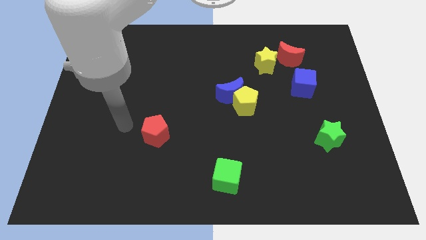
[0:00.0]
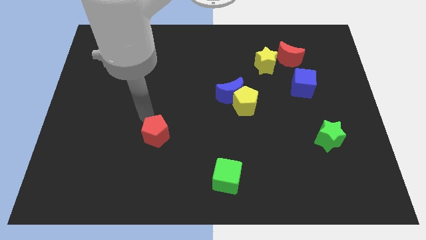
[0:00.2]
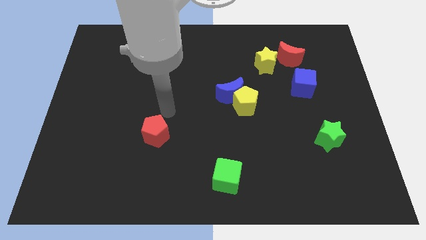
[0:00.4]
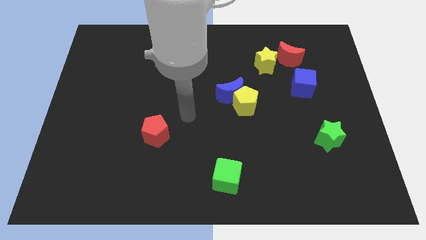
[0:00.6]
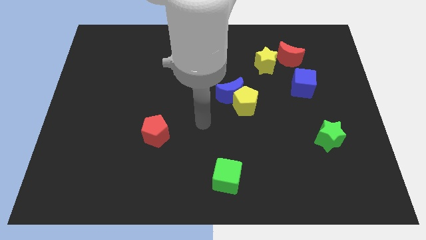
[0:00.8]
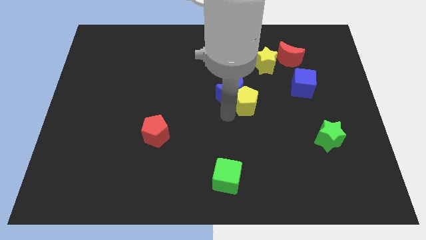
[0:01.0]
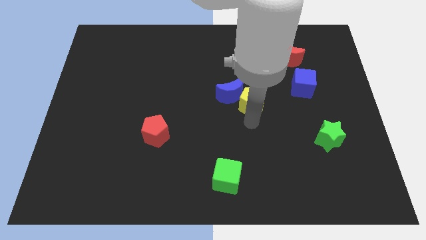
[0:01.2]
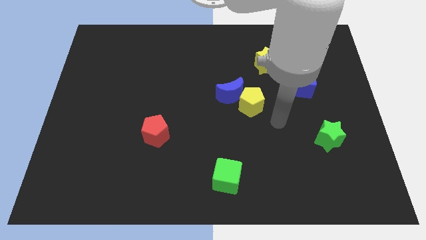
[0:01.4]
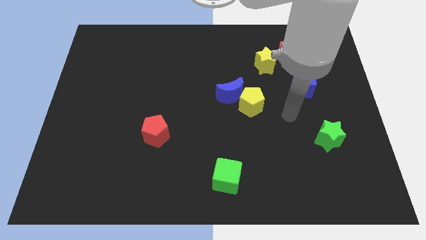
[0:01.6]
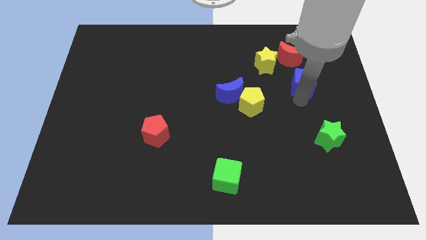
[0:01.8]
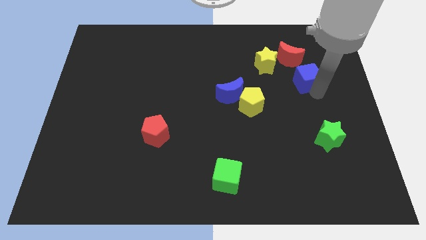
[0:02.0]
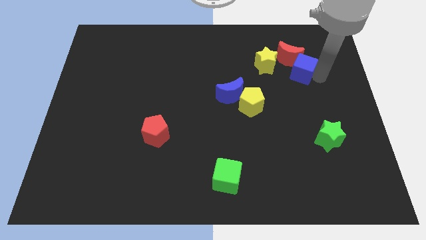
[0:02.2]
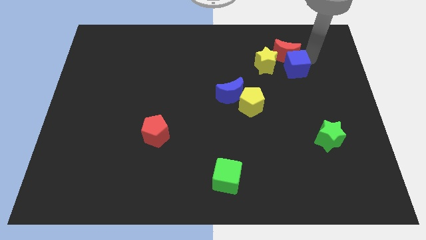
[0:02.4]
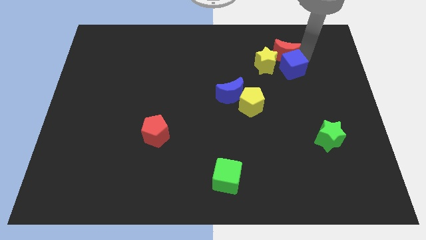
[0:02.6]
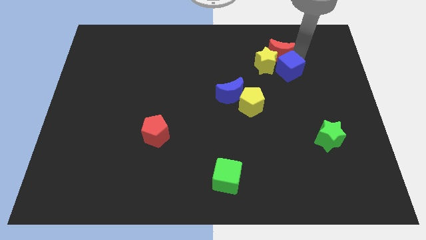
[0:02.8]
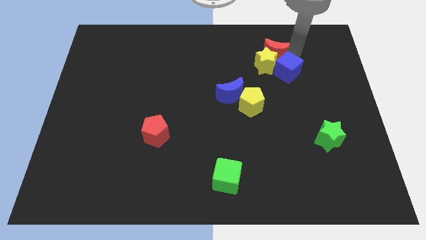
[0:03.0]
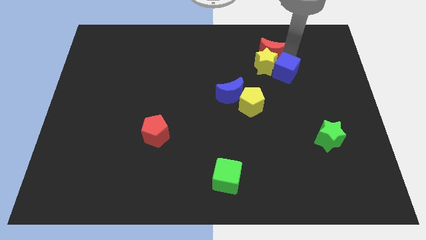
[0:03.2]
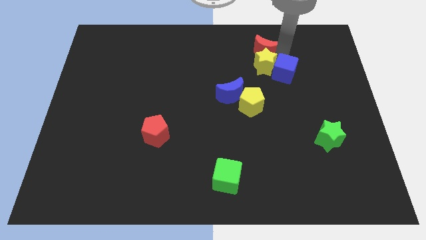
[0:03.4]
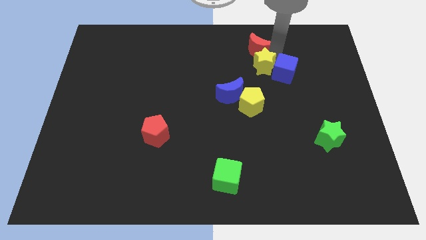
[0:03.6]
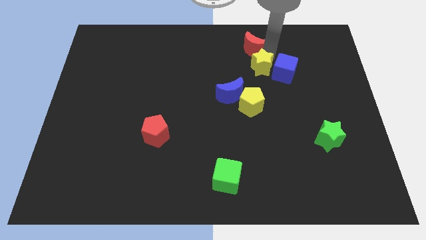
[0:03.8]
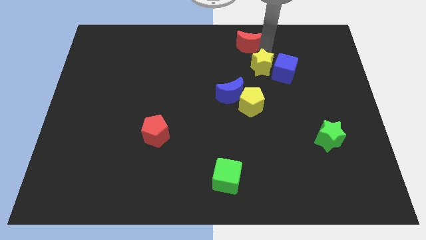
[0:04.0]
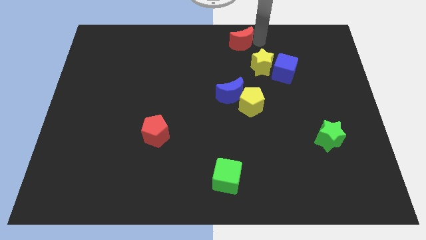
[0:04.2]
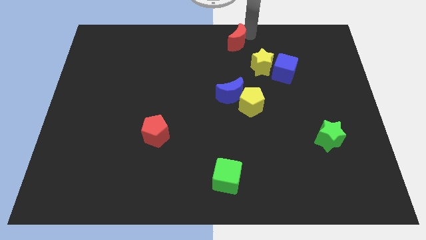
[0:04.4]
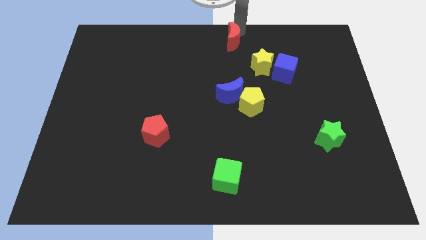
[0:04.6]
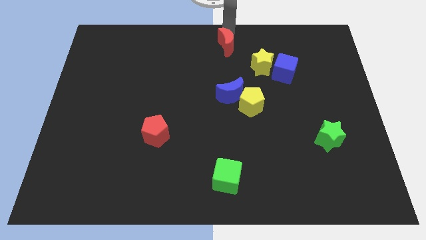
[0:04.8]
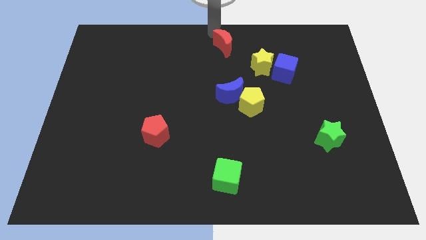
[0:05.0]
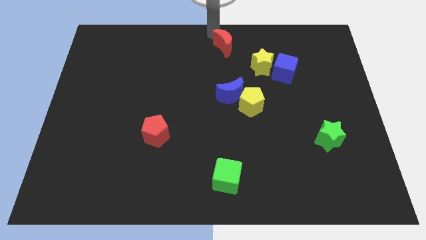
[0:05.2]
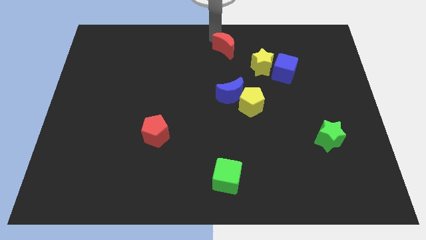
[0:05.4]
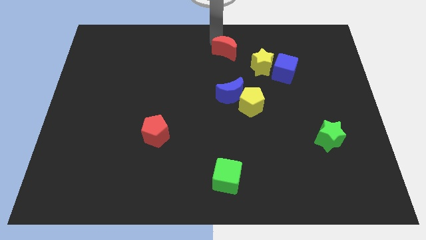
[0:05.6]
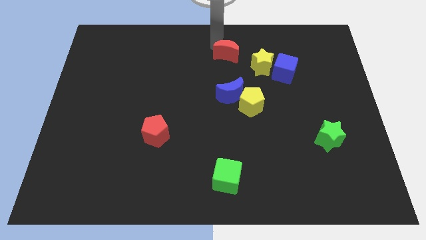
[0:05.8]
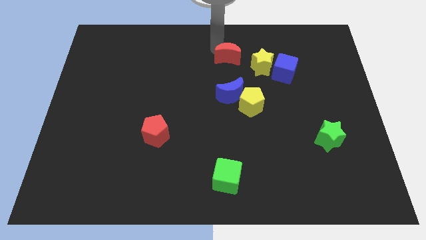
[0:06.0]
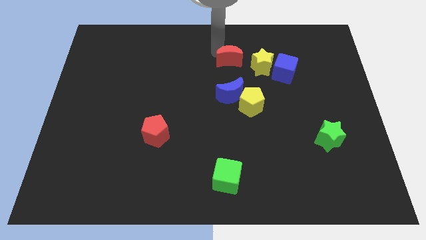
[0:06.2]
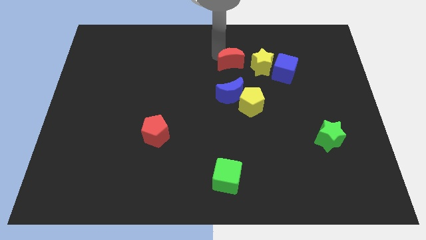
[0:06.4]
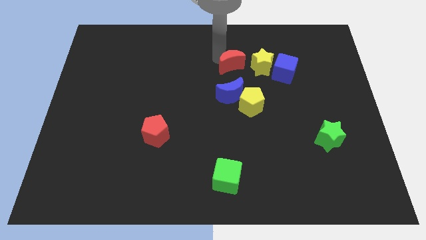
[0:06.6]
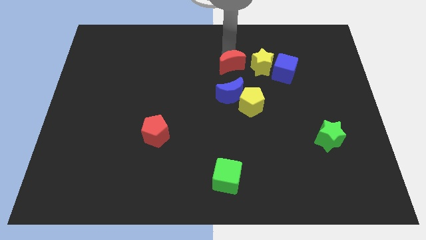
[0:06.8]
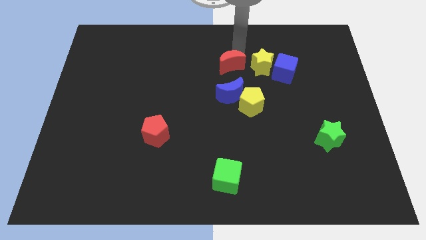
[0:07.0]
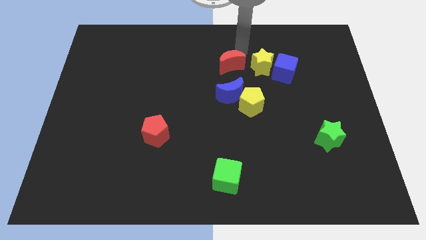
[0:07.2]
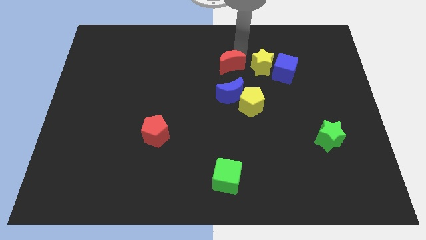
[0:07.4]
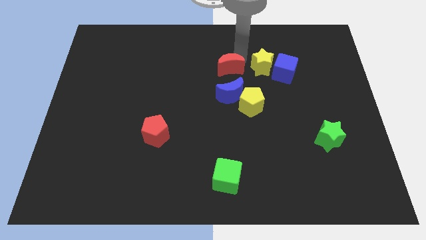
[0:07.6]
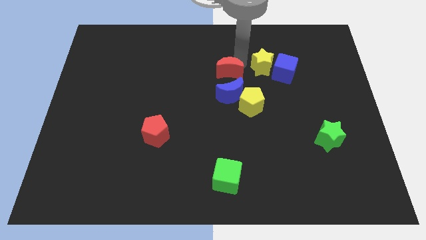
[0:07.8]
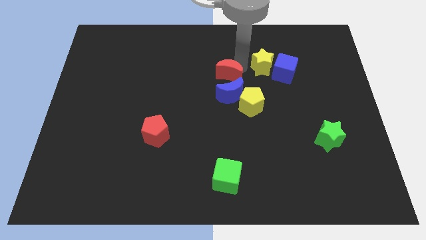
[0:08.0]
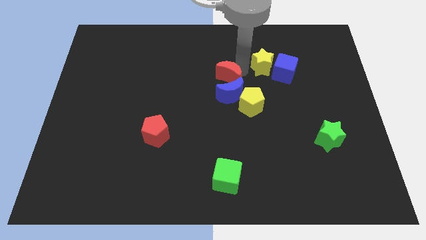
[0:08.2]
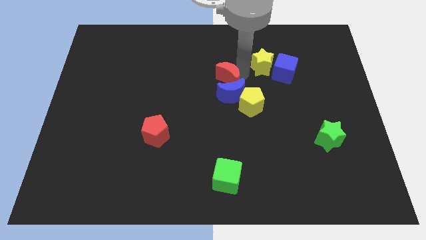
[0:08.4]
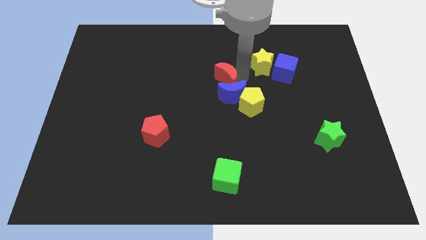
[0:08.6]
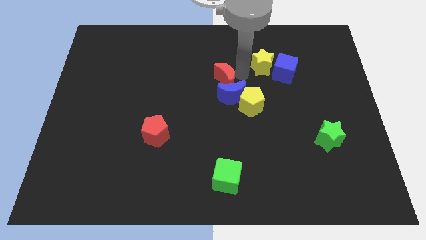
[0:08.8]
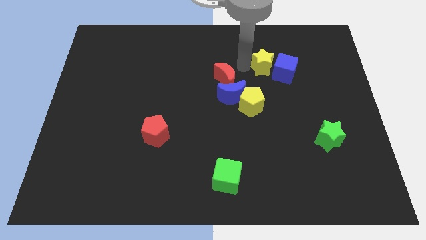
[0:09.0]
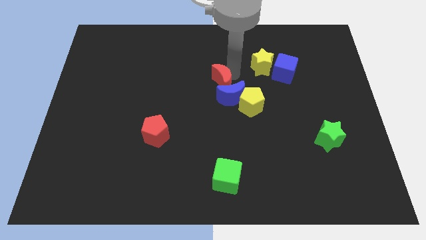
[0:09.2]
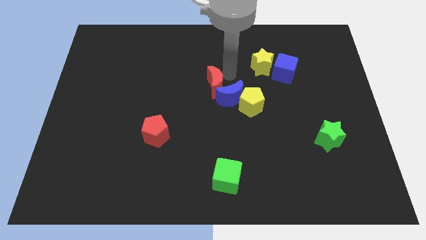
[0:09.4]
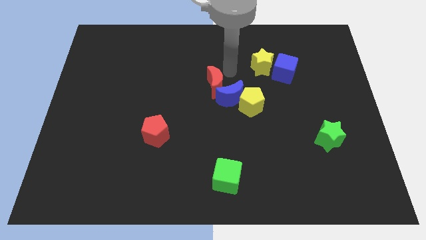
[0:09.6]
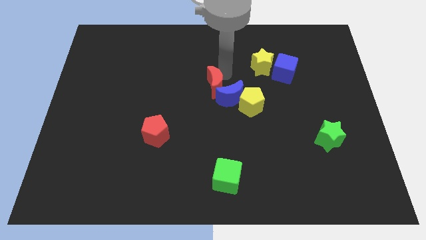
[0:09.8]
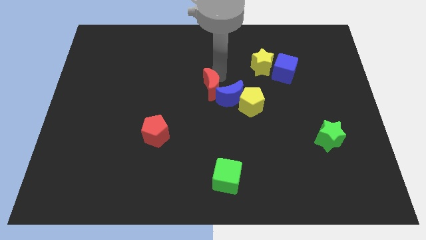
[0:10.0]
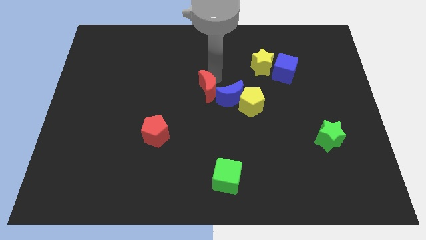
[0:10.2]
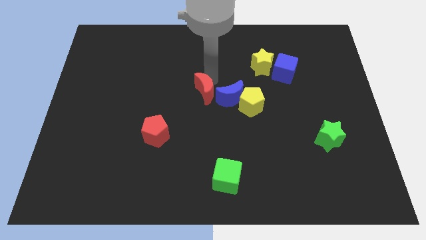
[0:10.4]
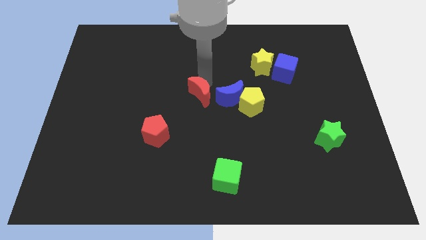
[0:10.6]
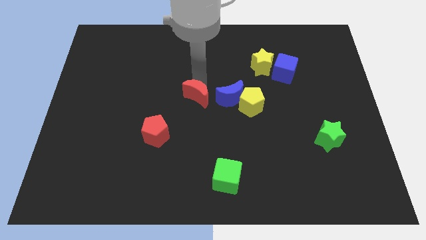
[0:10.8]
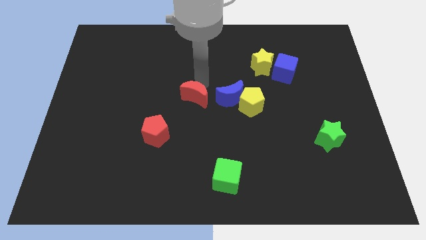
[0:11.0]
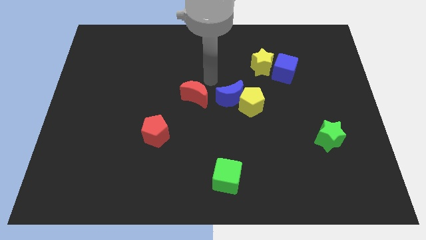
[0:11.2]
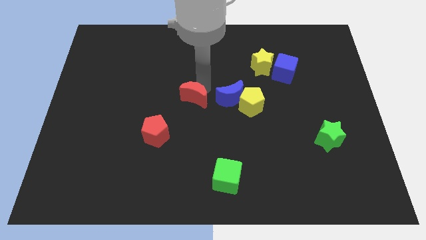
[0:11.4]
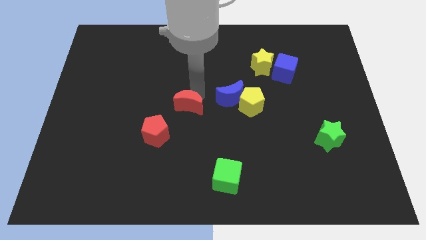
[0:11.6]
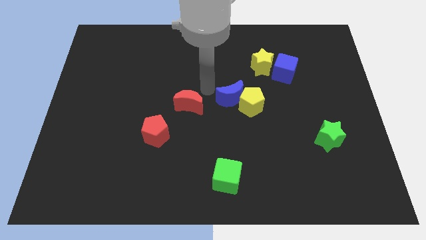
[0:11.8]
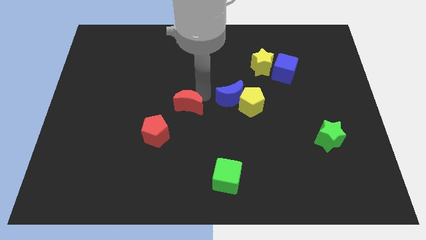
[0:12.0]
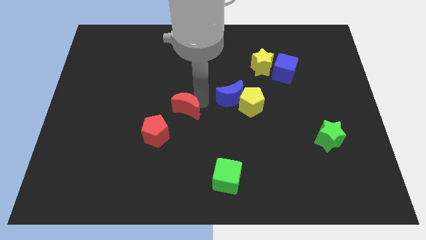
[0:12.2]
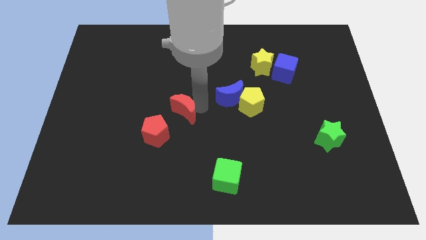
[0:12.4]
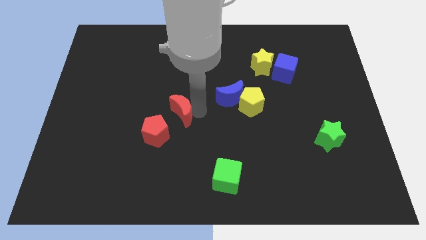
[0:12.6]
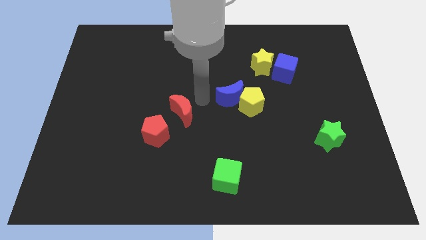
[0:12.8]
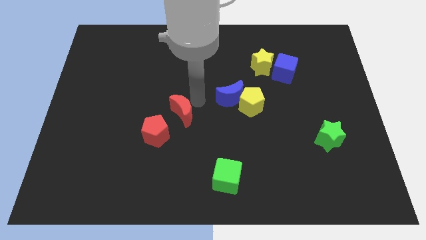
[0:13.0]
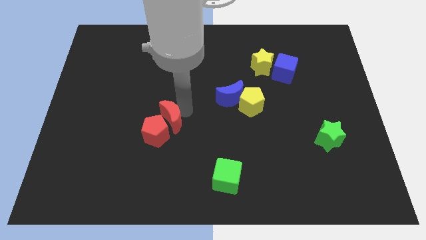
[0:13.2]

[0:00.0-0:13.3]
push the red moon to the red pentagon
